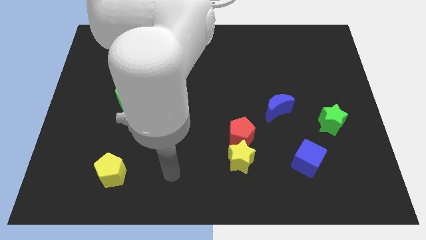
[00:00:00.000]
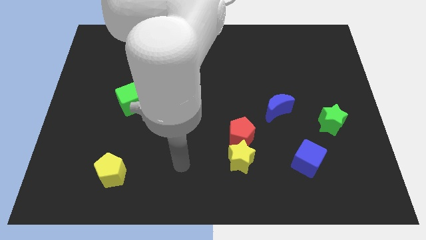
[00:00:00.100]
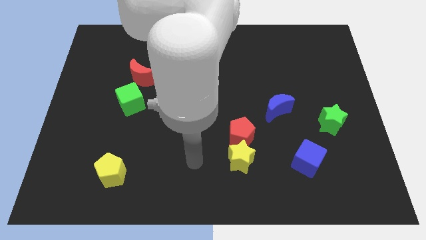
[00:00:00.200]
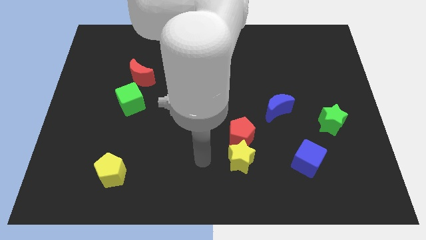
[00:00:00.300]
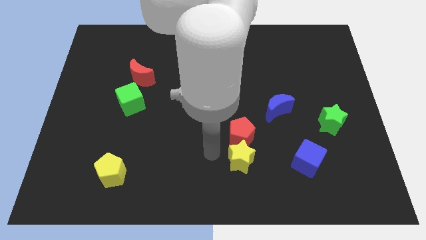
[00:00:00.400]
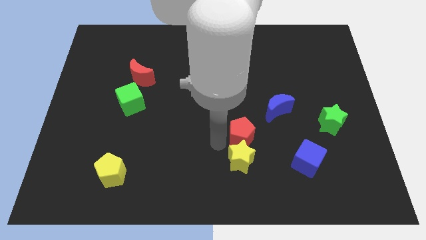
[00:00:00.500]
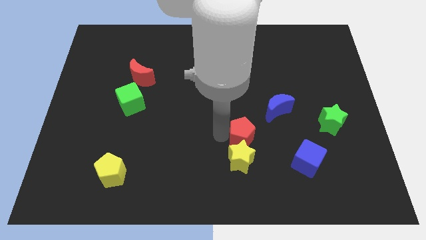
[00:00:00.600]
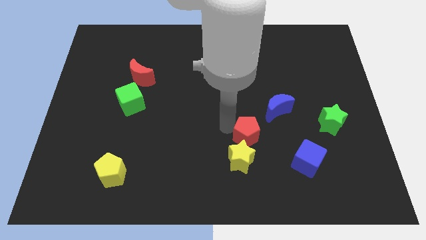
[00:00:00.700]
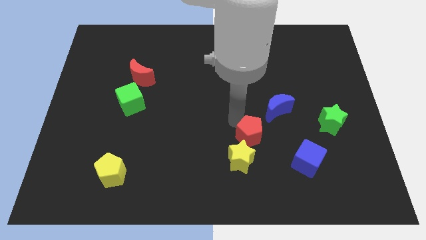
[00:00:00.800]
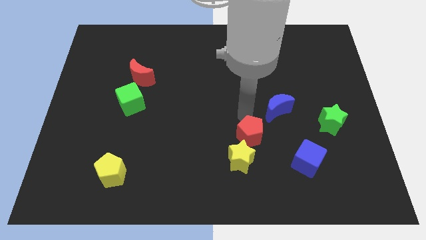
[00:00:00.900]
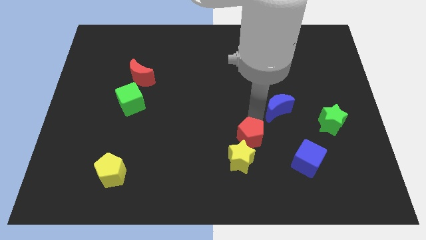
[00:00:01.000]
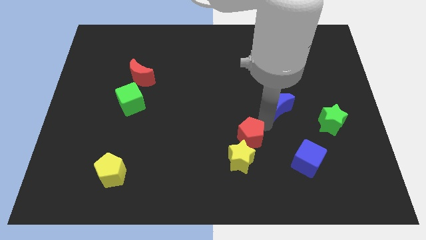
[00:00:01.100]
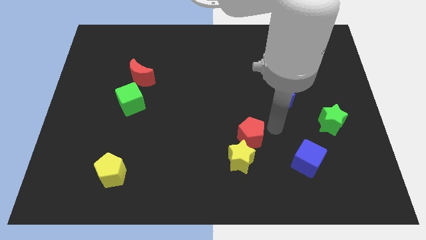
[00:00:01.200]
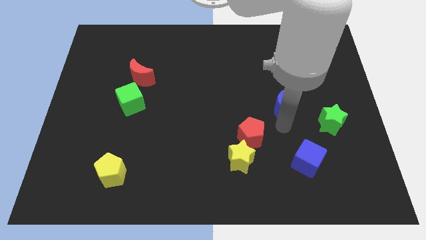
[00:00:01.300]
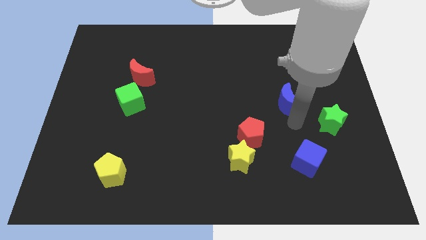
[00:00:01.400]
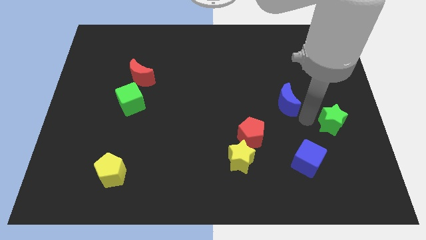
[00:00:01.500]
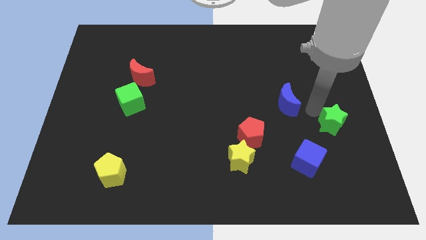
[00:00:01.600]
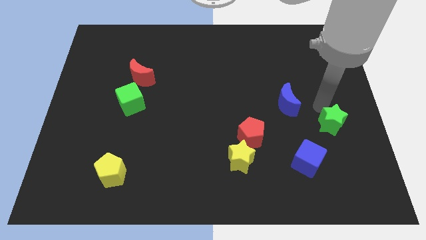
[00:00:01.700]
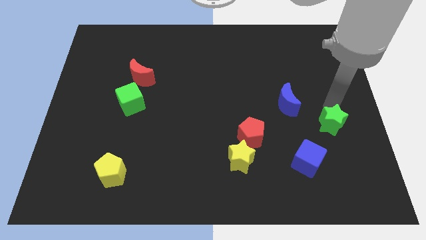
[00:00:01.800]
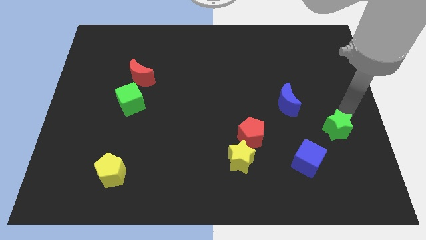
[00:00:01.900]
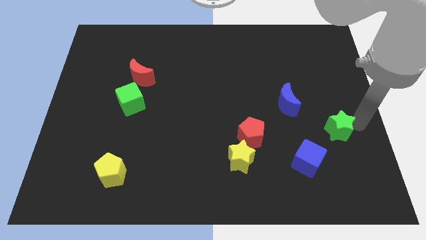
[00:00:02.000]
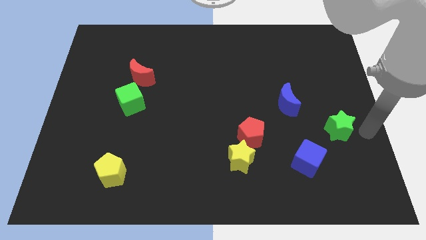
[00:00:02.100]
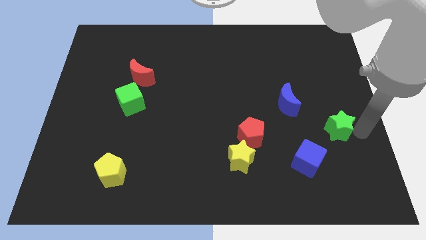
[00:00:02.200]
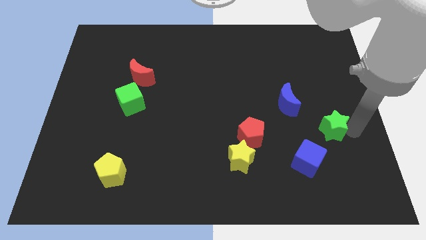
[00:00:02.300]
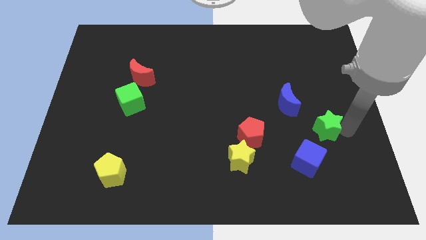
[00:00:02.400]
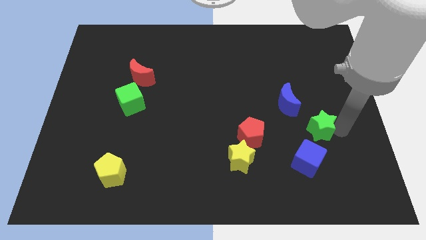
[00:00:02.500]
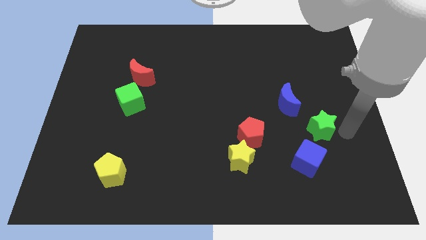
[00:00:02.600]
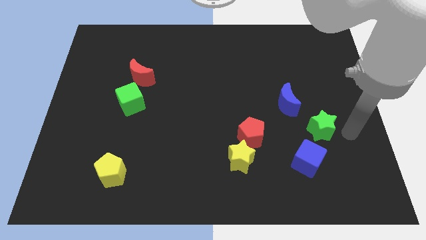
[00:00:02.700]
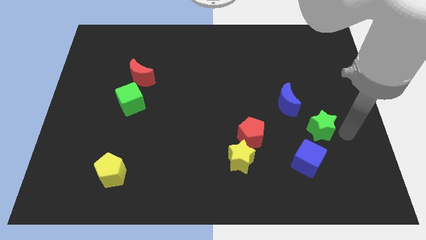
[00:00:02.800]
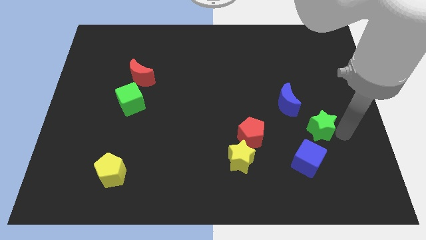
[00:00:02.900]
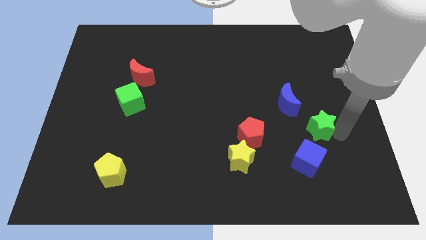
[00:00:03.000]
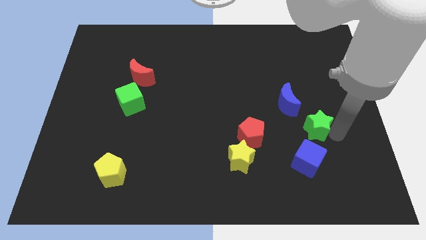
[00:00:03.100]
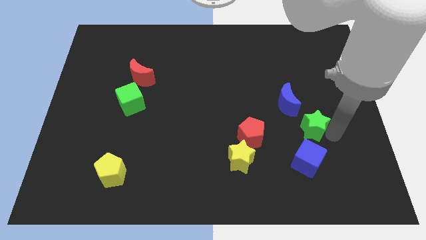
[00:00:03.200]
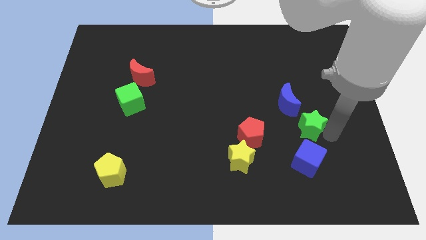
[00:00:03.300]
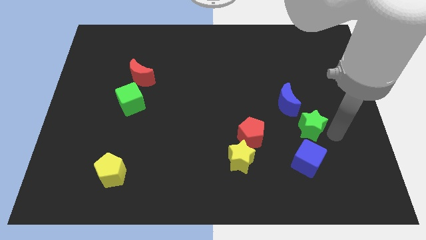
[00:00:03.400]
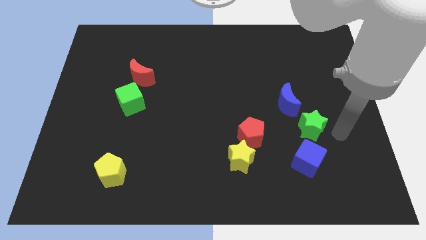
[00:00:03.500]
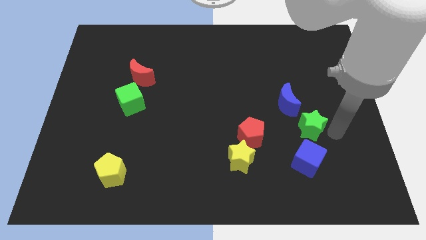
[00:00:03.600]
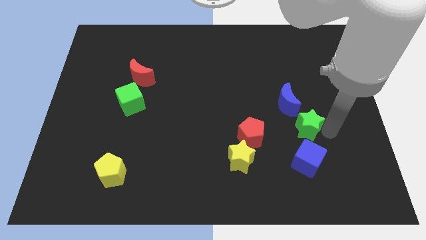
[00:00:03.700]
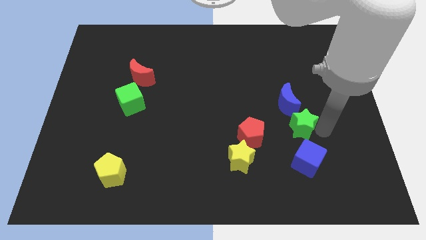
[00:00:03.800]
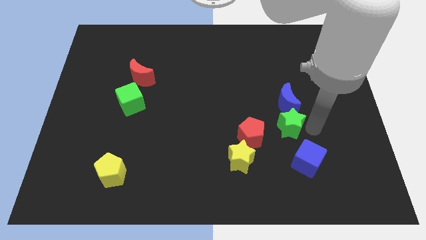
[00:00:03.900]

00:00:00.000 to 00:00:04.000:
move the green star to the left slightly

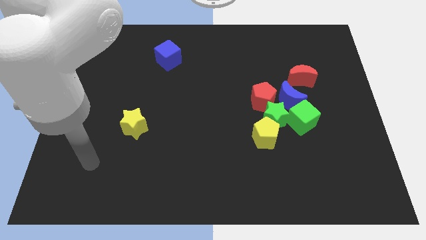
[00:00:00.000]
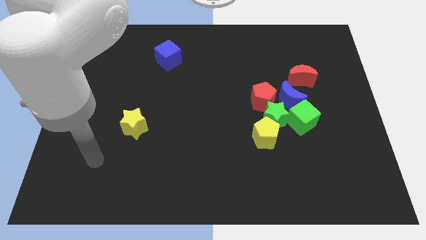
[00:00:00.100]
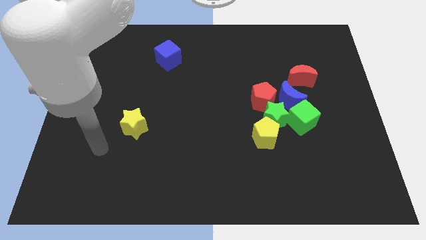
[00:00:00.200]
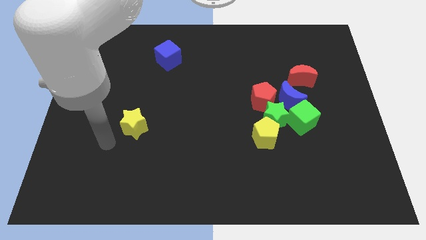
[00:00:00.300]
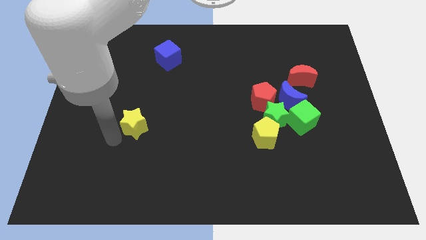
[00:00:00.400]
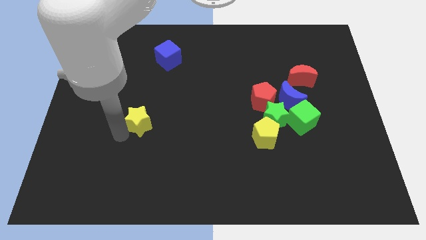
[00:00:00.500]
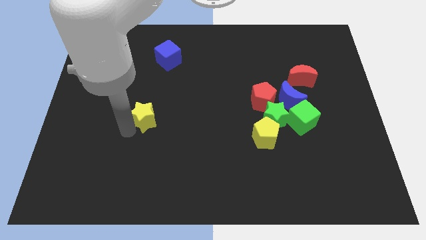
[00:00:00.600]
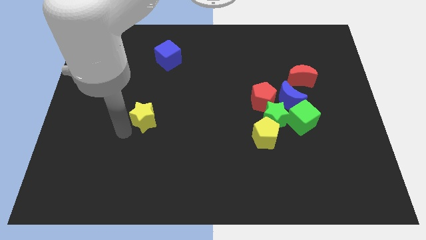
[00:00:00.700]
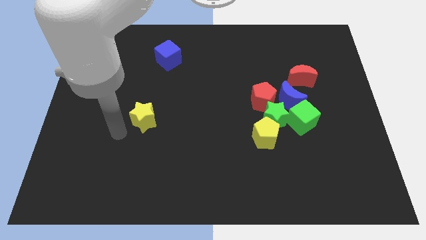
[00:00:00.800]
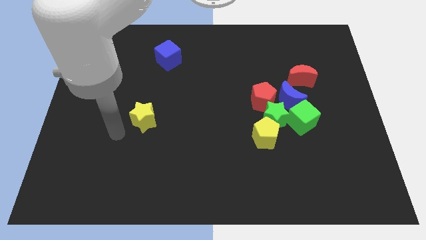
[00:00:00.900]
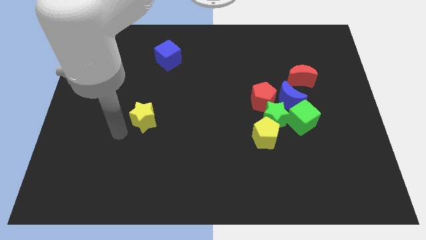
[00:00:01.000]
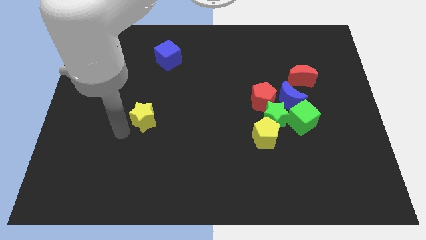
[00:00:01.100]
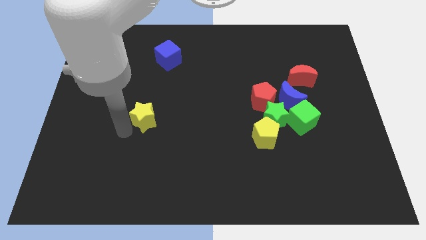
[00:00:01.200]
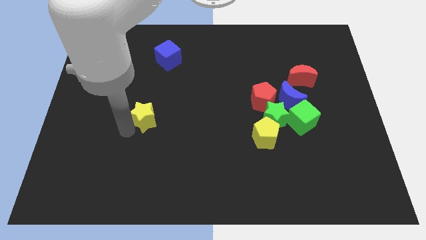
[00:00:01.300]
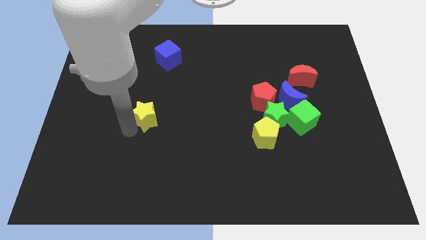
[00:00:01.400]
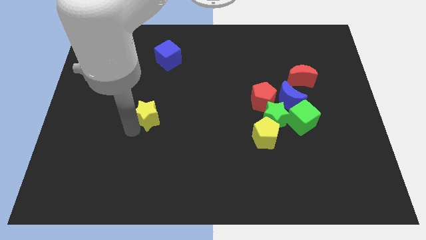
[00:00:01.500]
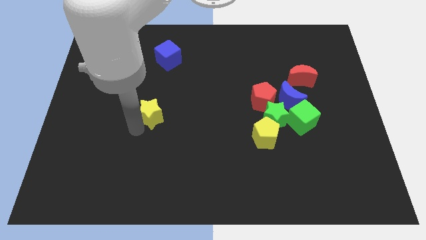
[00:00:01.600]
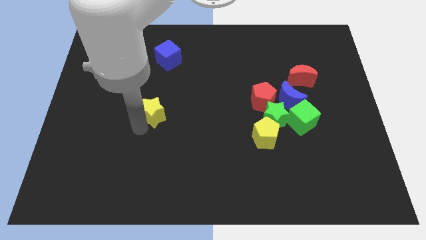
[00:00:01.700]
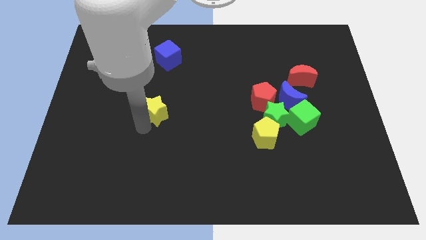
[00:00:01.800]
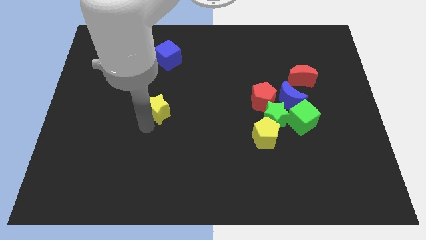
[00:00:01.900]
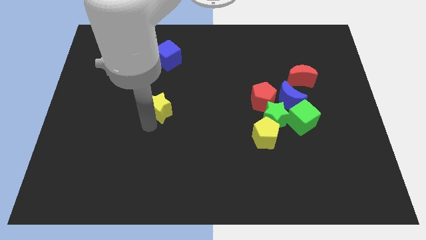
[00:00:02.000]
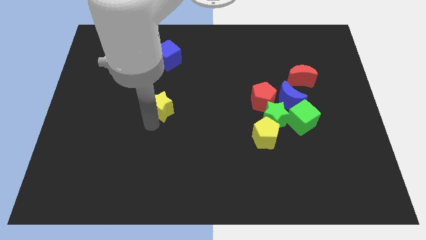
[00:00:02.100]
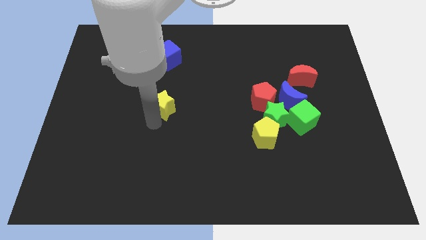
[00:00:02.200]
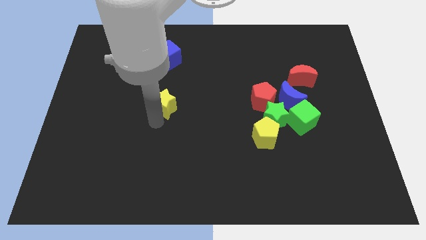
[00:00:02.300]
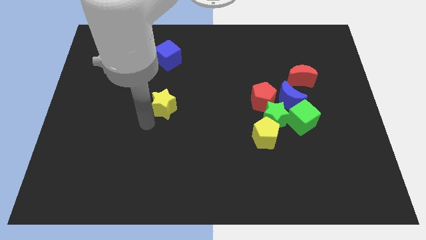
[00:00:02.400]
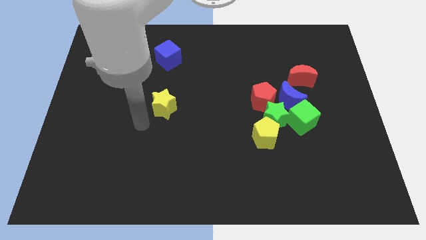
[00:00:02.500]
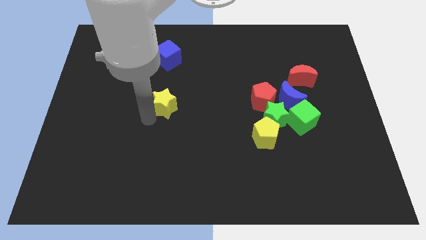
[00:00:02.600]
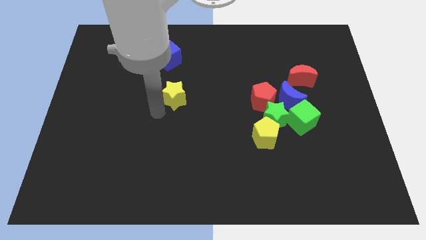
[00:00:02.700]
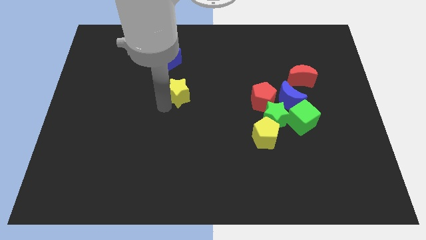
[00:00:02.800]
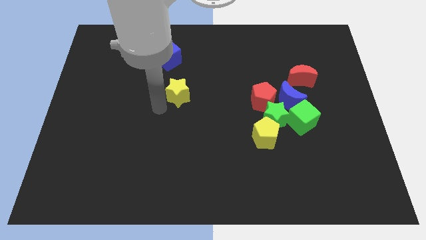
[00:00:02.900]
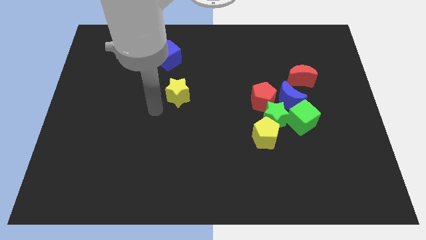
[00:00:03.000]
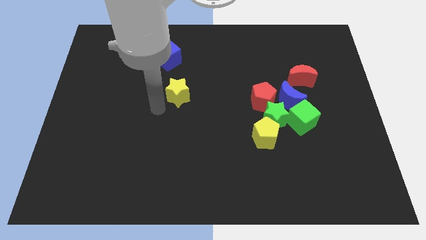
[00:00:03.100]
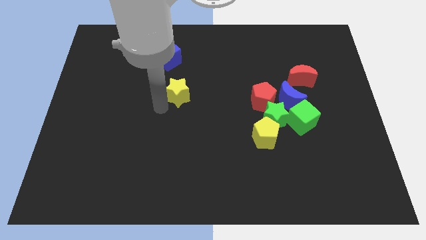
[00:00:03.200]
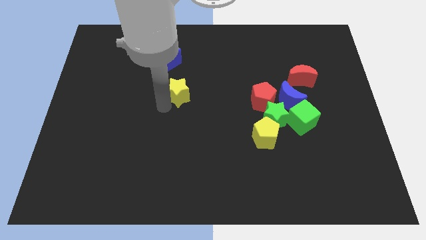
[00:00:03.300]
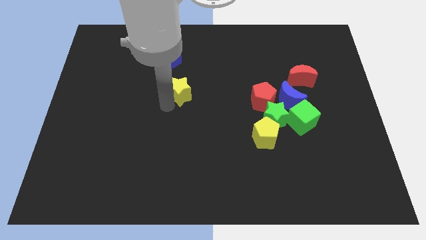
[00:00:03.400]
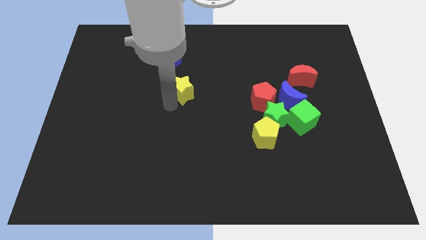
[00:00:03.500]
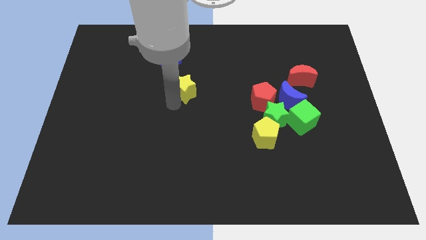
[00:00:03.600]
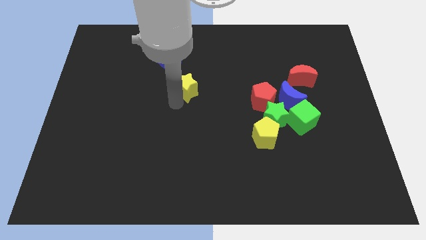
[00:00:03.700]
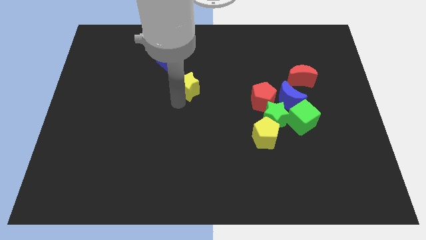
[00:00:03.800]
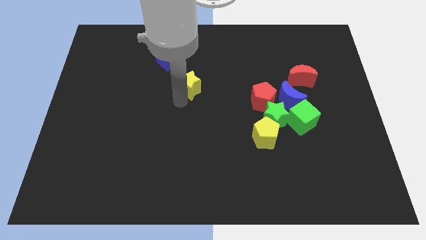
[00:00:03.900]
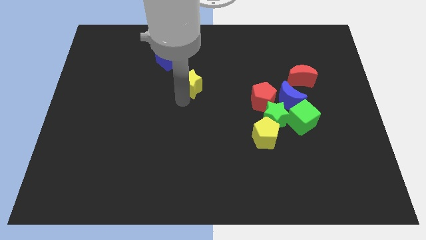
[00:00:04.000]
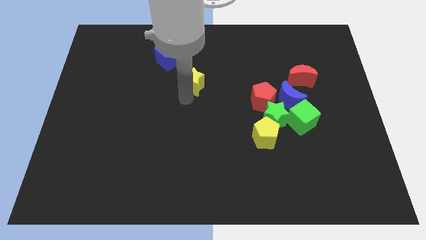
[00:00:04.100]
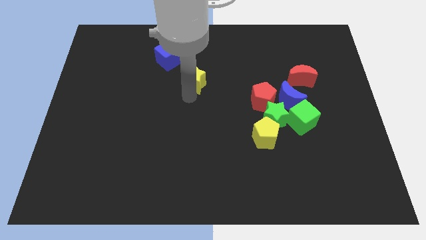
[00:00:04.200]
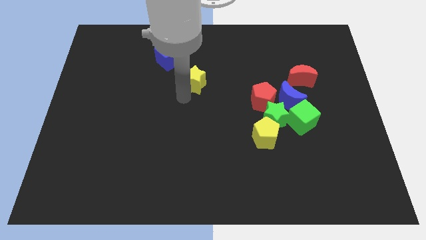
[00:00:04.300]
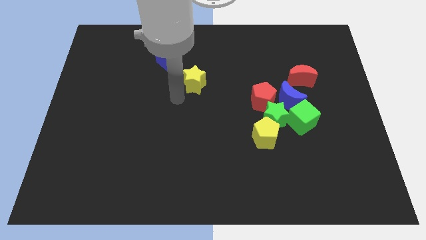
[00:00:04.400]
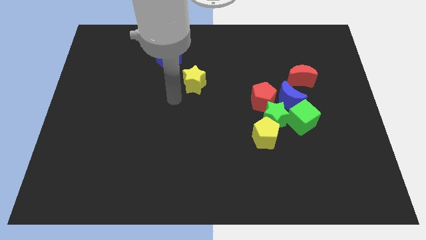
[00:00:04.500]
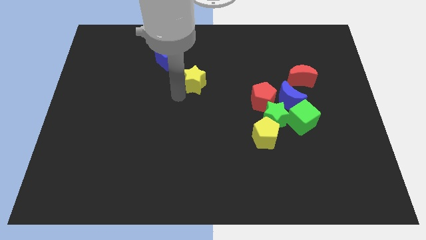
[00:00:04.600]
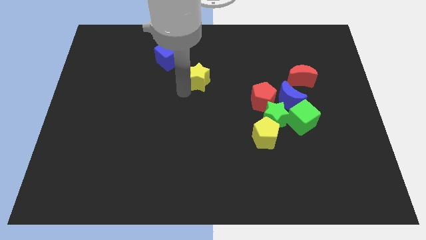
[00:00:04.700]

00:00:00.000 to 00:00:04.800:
push the yellow star up and to the right diagonally
